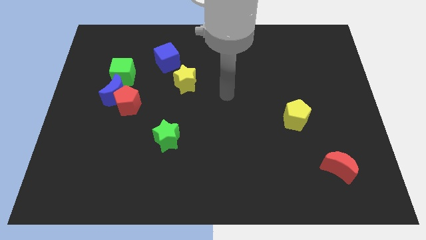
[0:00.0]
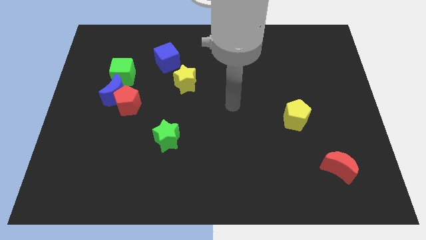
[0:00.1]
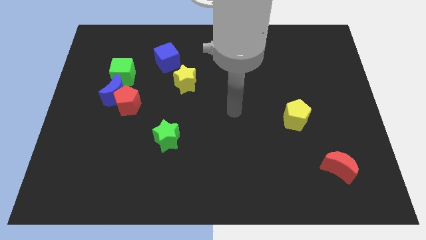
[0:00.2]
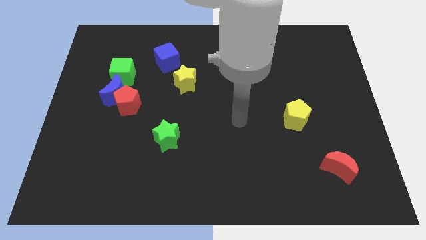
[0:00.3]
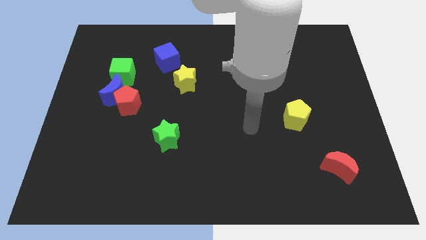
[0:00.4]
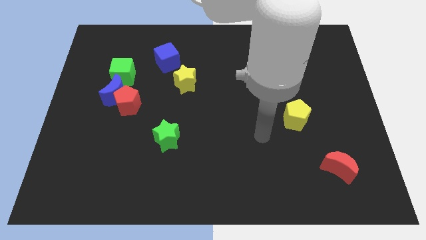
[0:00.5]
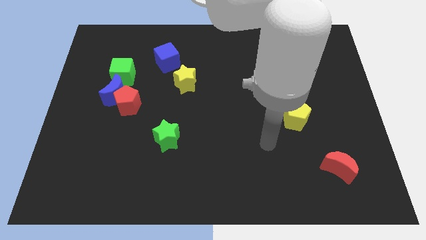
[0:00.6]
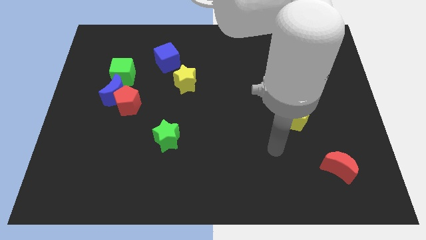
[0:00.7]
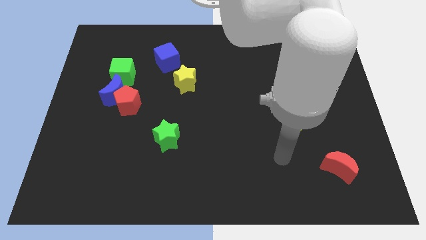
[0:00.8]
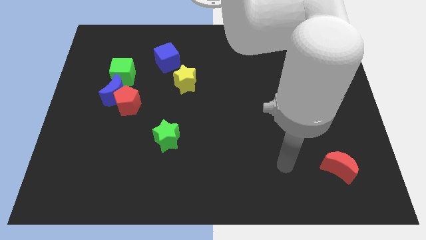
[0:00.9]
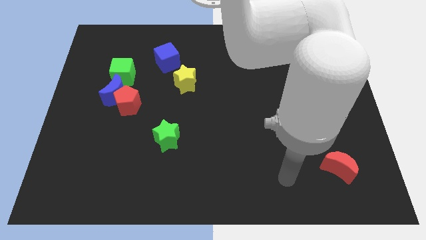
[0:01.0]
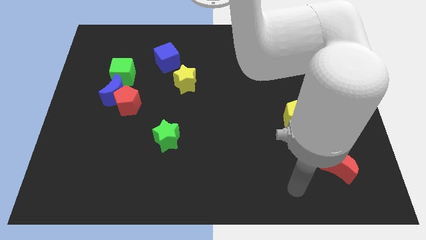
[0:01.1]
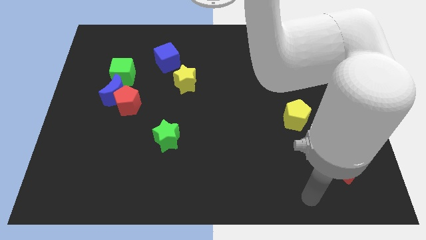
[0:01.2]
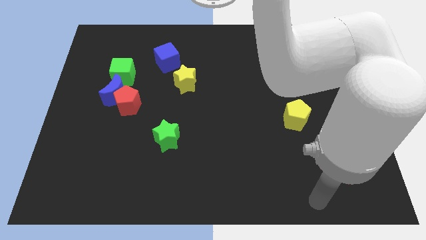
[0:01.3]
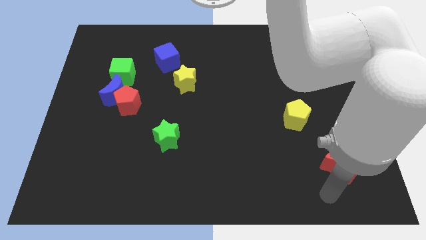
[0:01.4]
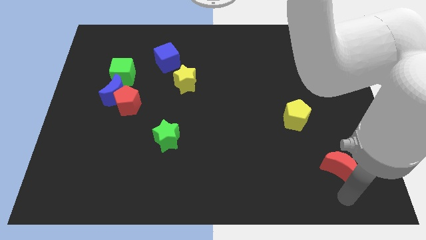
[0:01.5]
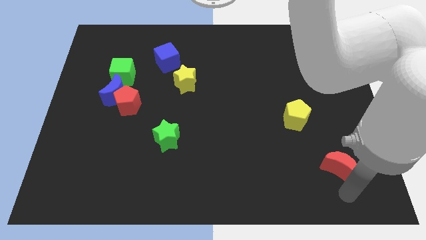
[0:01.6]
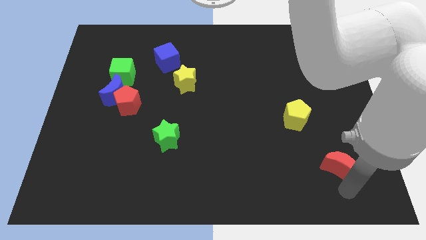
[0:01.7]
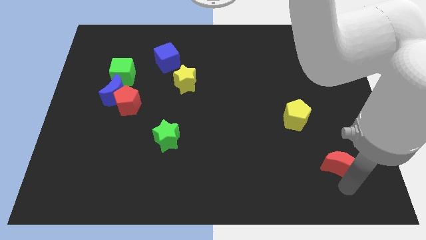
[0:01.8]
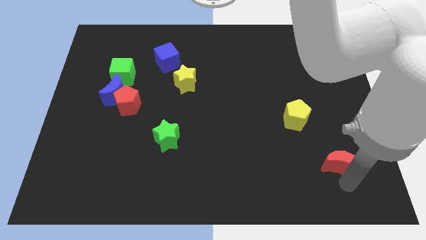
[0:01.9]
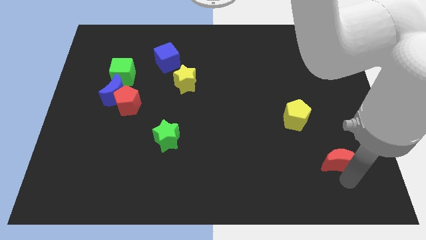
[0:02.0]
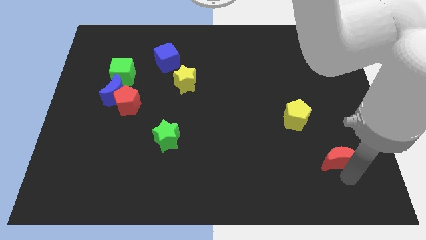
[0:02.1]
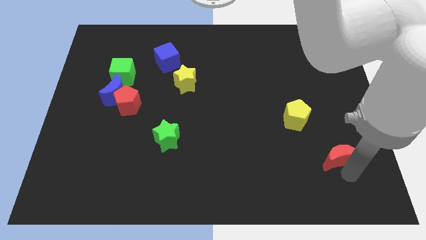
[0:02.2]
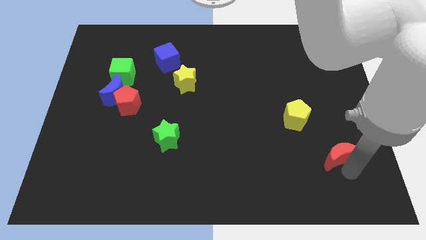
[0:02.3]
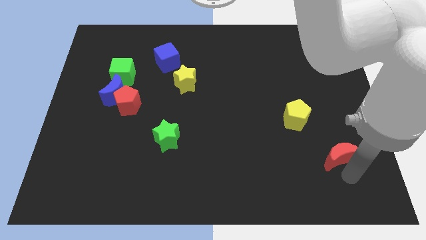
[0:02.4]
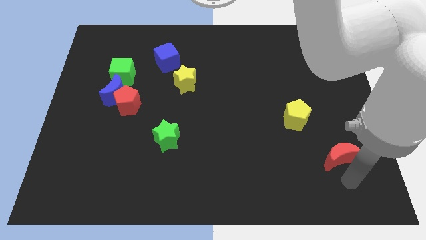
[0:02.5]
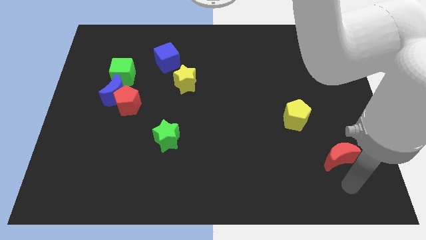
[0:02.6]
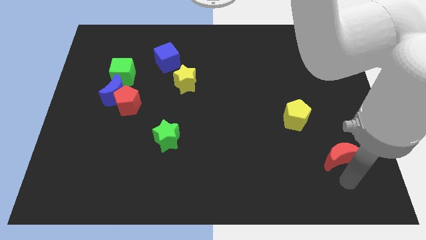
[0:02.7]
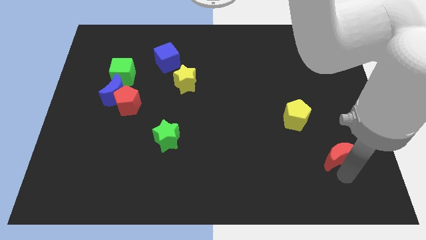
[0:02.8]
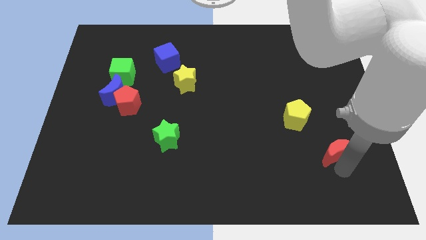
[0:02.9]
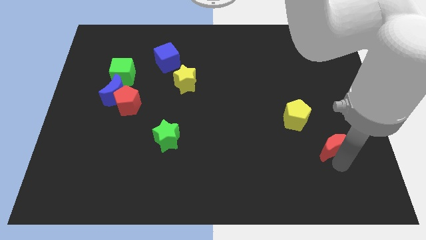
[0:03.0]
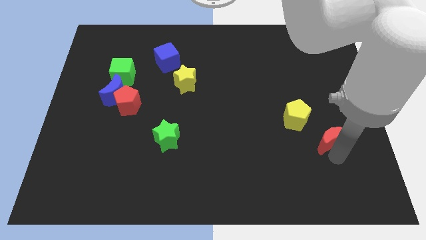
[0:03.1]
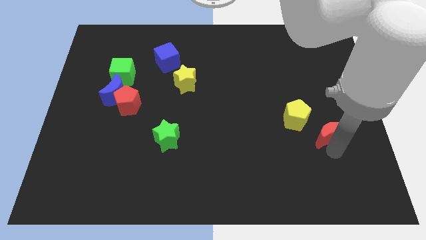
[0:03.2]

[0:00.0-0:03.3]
slightly slide the red moon upwards

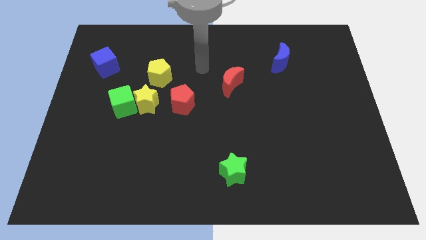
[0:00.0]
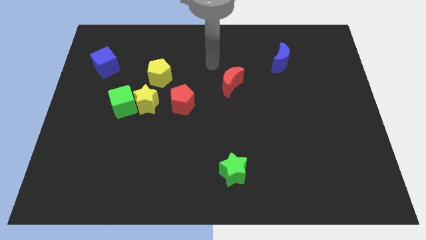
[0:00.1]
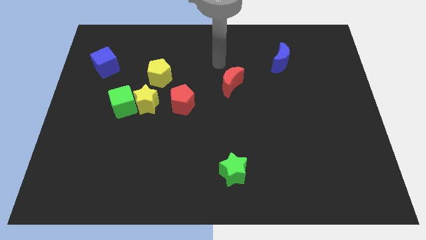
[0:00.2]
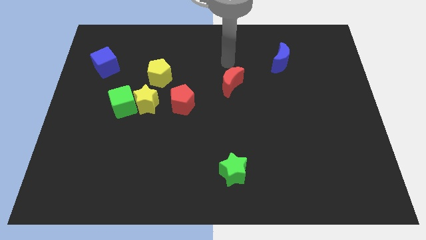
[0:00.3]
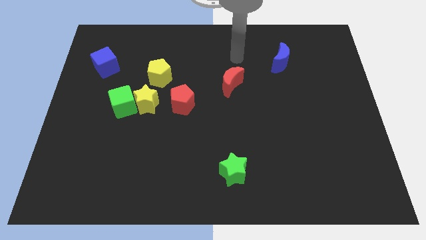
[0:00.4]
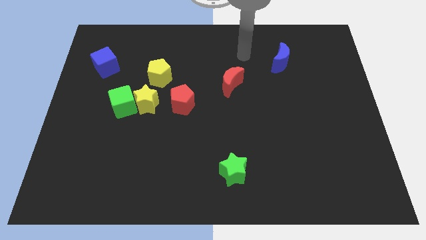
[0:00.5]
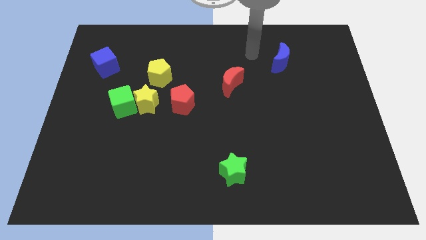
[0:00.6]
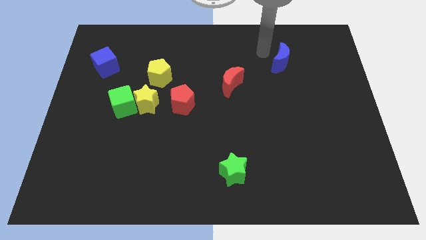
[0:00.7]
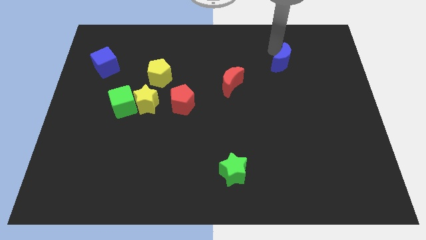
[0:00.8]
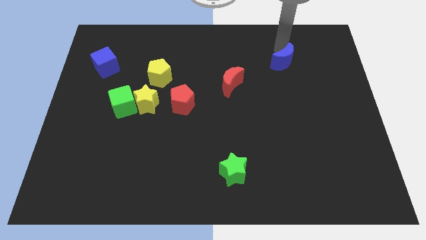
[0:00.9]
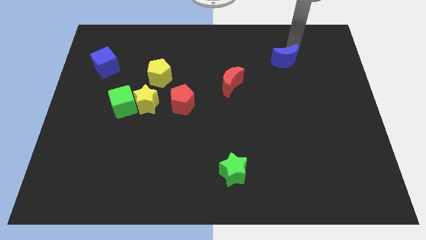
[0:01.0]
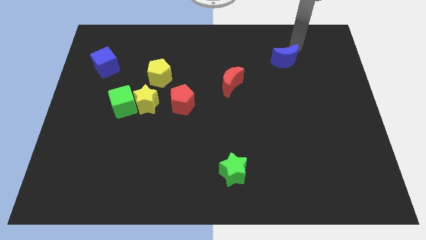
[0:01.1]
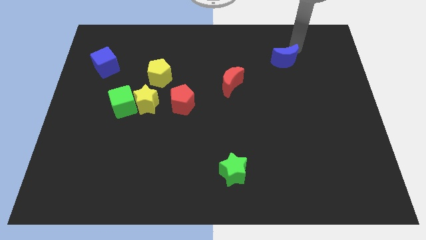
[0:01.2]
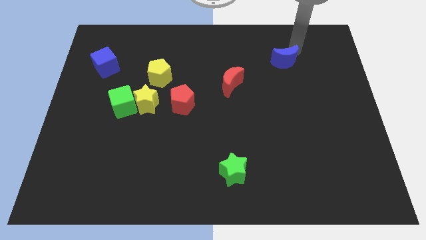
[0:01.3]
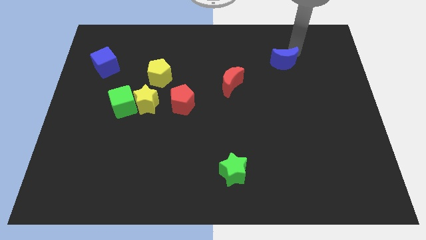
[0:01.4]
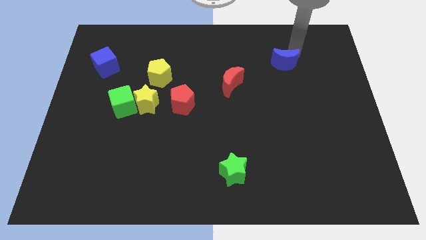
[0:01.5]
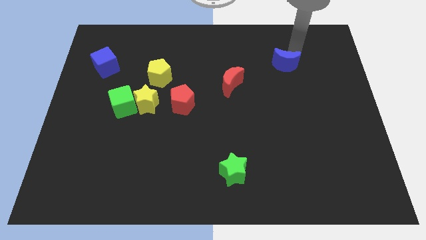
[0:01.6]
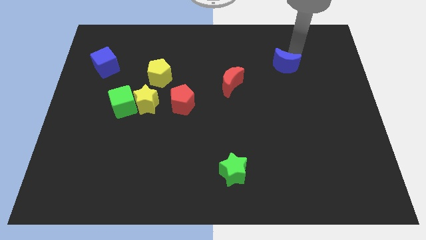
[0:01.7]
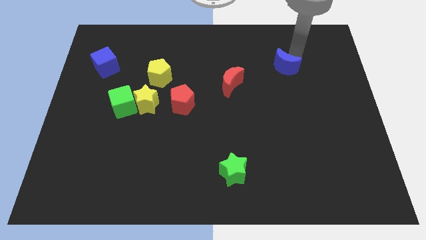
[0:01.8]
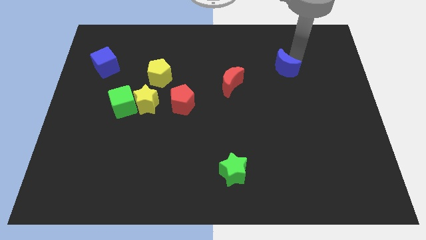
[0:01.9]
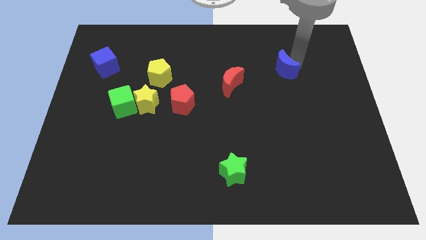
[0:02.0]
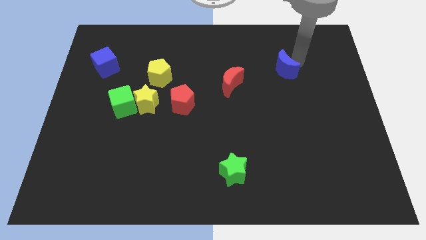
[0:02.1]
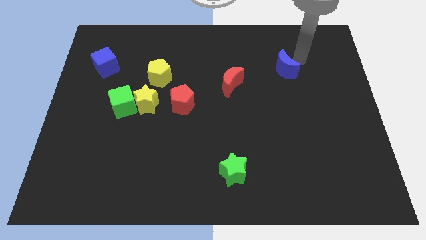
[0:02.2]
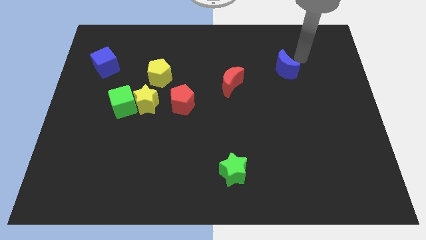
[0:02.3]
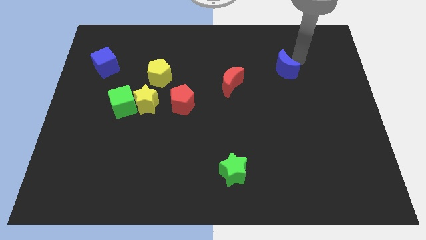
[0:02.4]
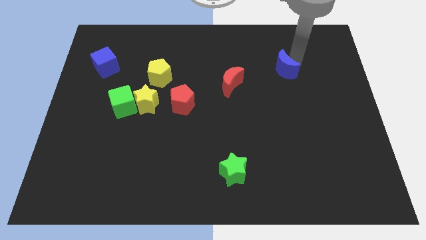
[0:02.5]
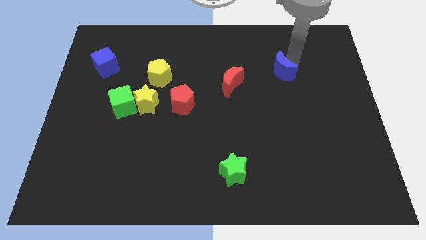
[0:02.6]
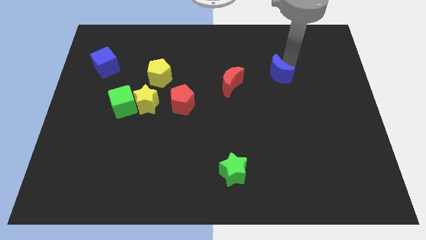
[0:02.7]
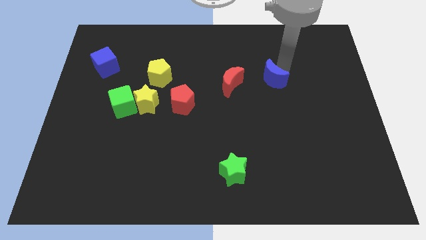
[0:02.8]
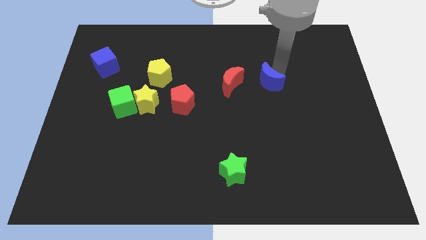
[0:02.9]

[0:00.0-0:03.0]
move the blue moon down and to the left a little

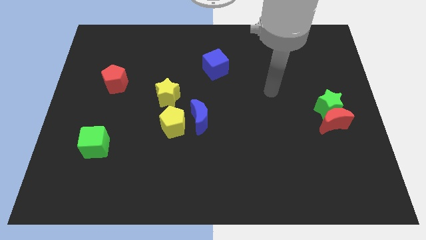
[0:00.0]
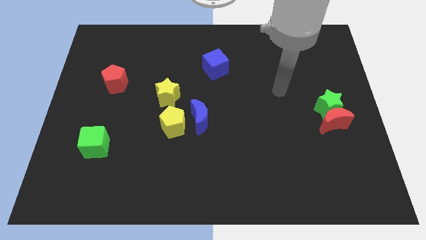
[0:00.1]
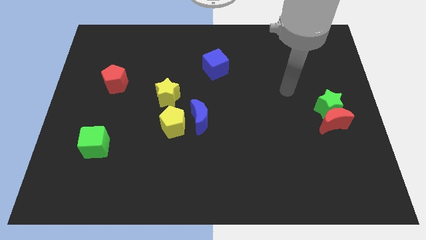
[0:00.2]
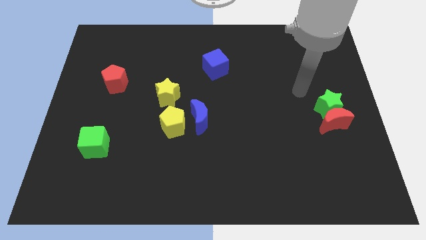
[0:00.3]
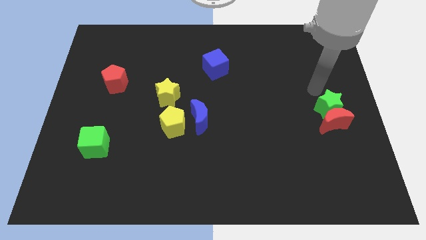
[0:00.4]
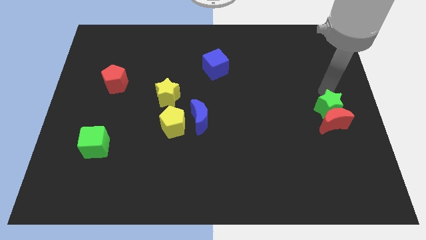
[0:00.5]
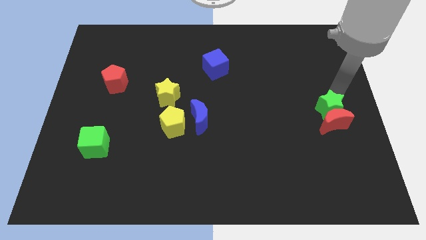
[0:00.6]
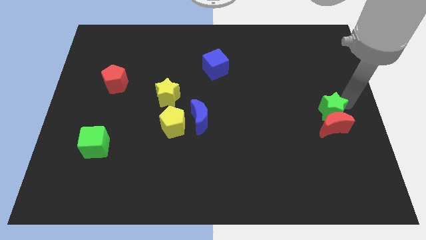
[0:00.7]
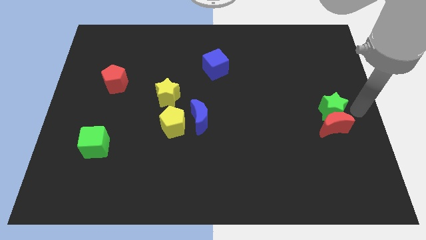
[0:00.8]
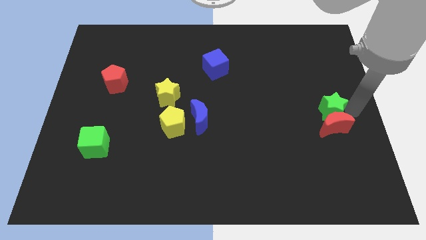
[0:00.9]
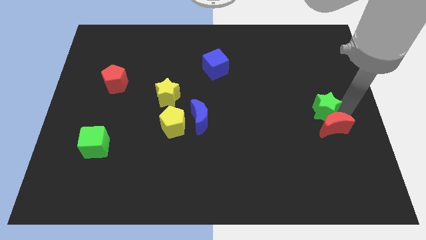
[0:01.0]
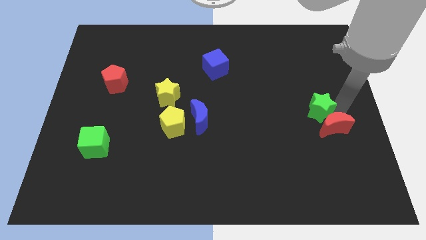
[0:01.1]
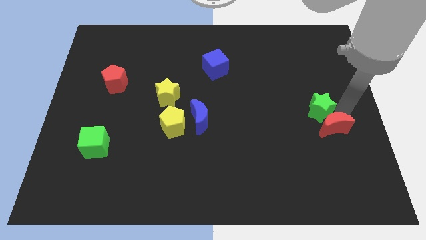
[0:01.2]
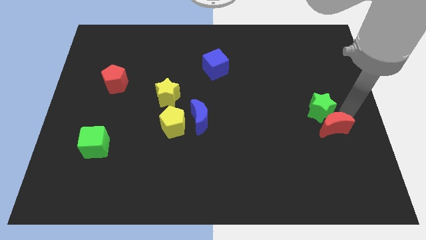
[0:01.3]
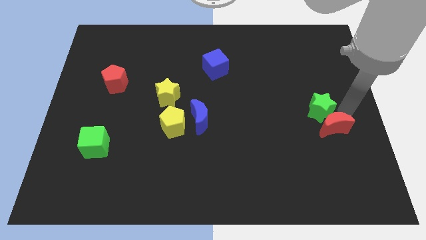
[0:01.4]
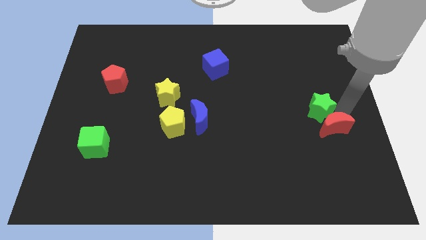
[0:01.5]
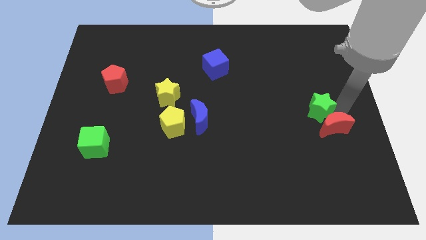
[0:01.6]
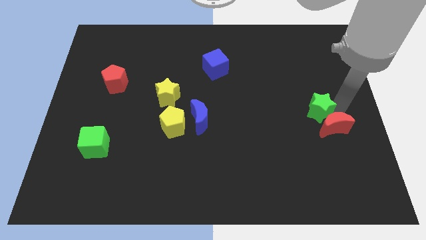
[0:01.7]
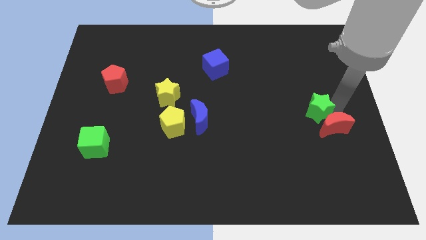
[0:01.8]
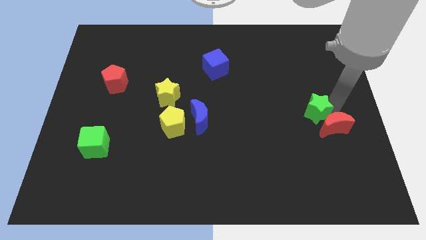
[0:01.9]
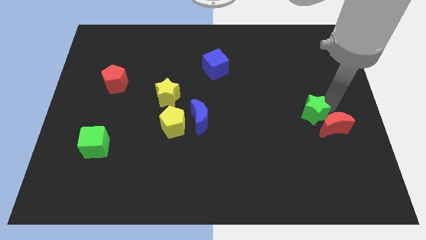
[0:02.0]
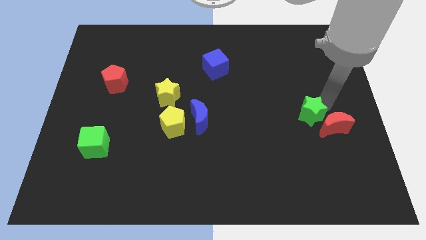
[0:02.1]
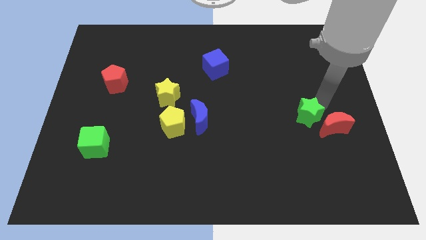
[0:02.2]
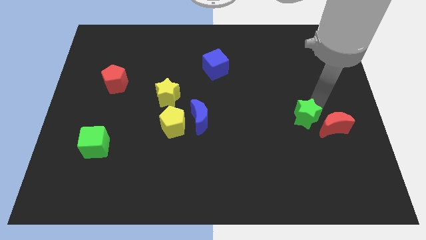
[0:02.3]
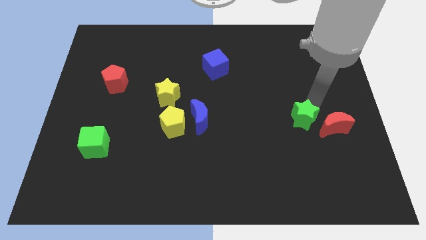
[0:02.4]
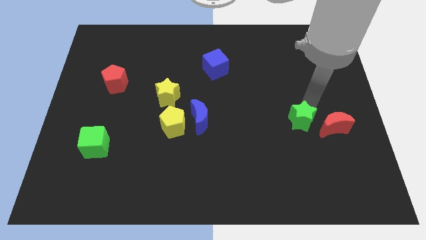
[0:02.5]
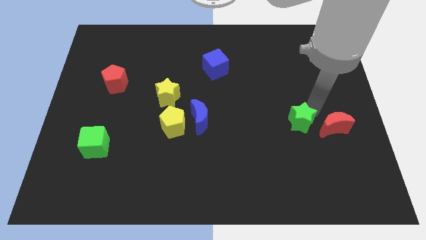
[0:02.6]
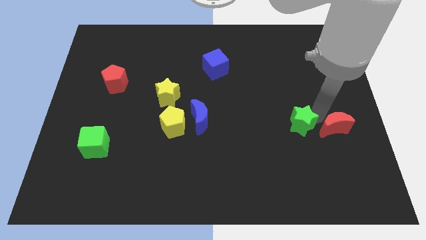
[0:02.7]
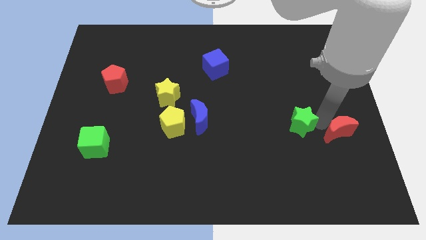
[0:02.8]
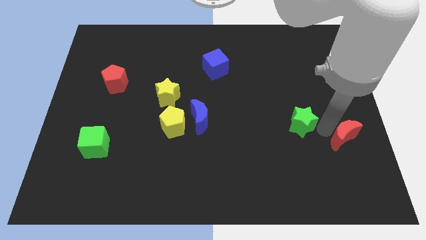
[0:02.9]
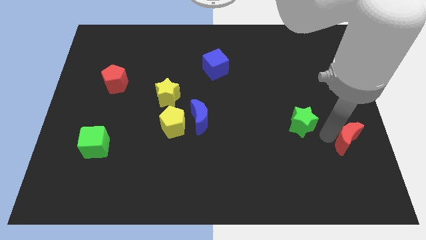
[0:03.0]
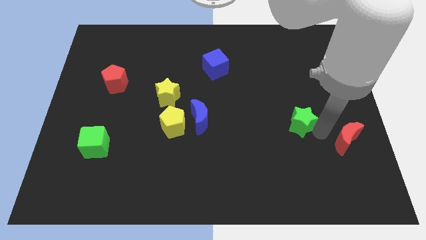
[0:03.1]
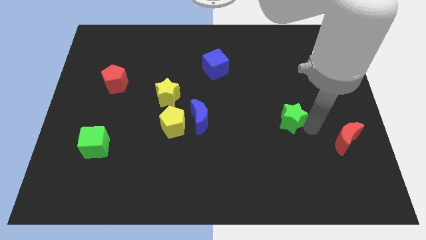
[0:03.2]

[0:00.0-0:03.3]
slightly slide the green star to the left
